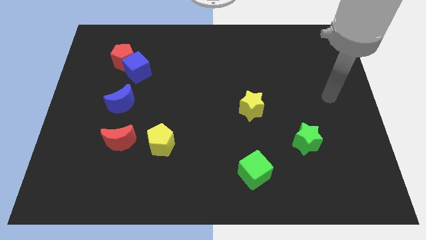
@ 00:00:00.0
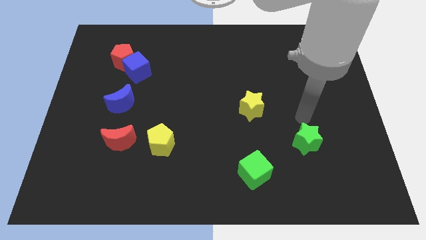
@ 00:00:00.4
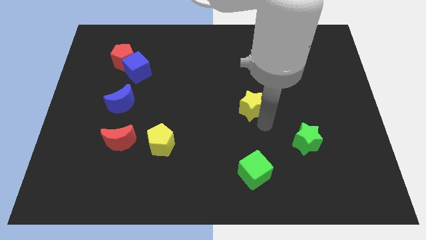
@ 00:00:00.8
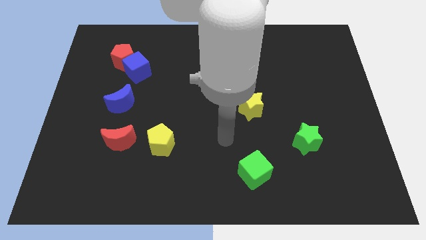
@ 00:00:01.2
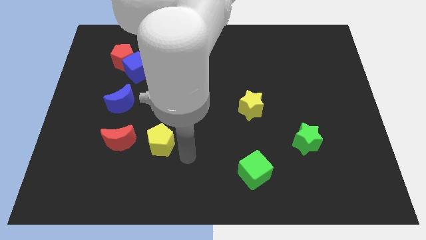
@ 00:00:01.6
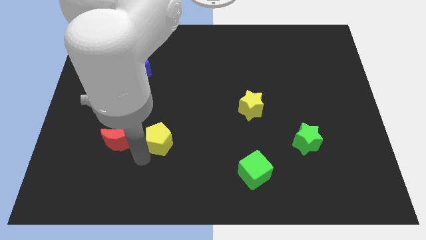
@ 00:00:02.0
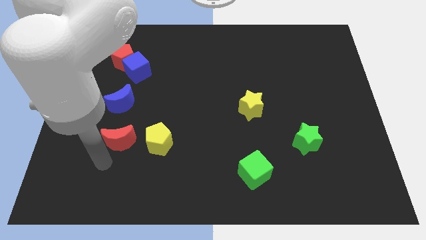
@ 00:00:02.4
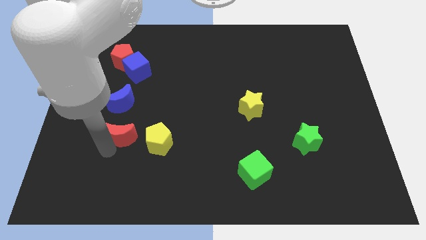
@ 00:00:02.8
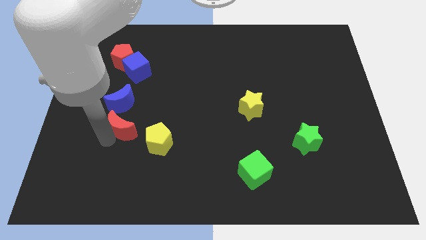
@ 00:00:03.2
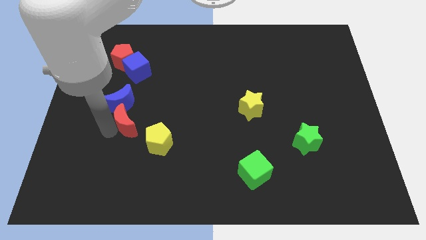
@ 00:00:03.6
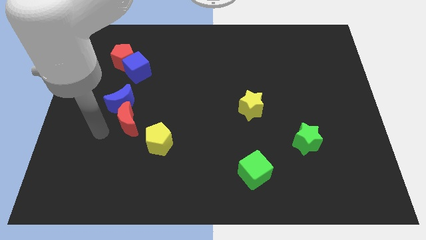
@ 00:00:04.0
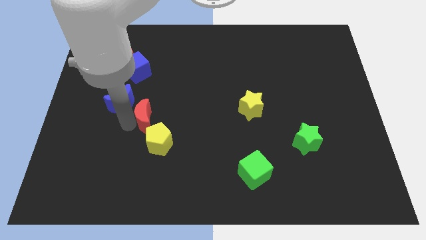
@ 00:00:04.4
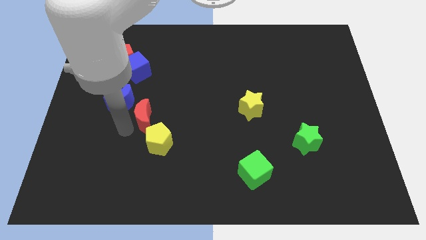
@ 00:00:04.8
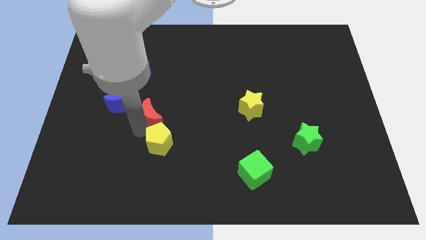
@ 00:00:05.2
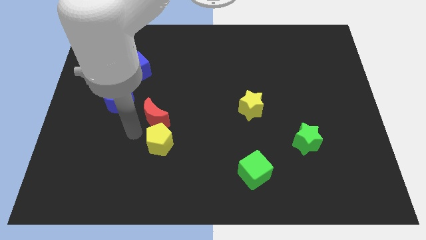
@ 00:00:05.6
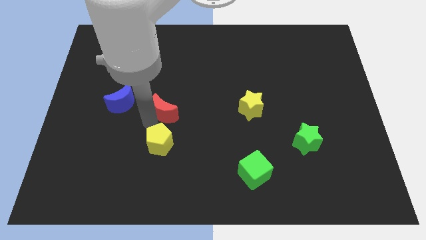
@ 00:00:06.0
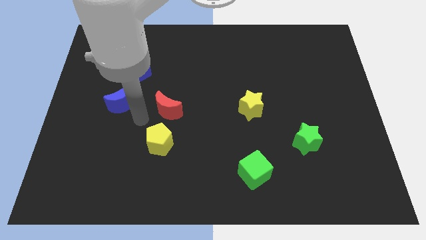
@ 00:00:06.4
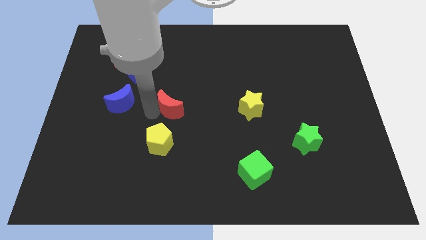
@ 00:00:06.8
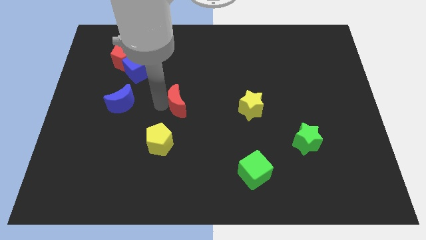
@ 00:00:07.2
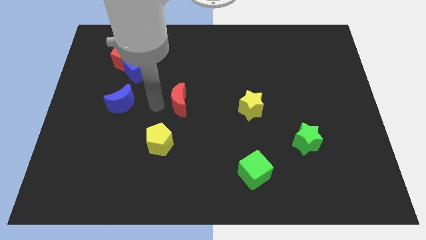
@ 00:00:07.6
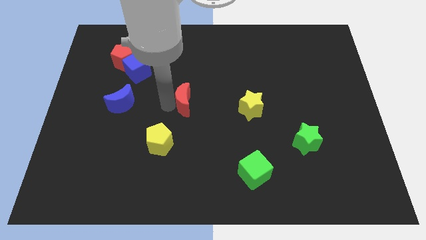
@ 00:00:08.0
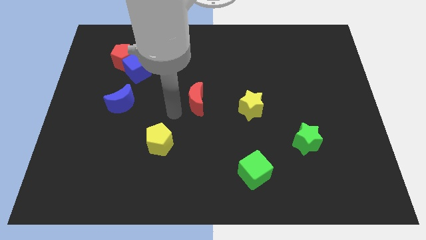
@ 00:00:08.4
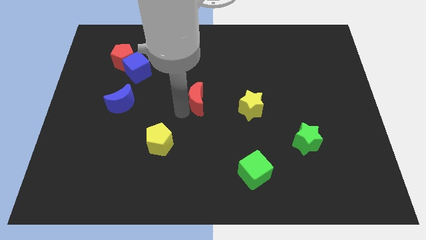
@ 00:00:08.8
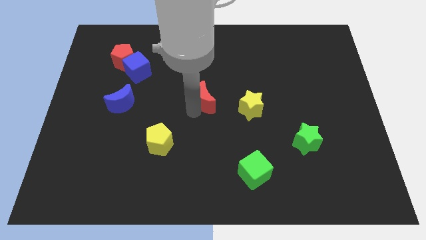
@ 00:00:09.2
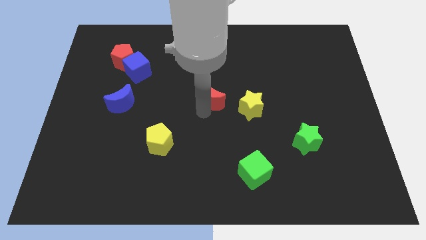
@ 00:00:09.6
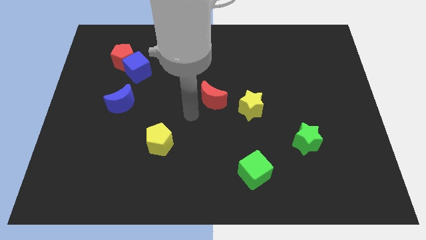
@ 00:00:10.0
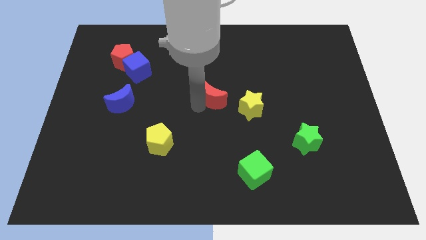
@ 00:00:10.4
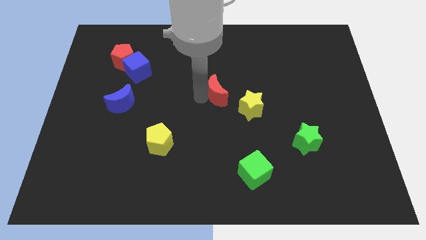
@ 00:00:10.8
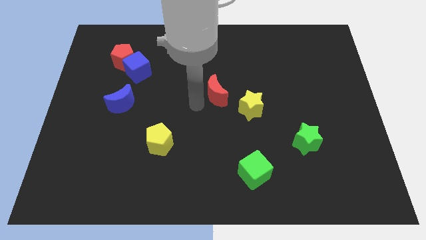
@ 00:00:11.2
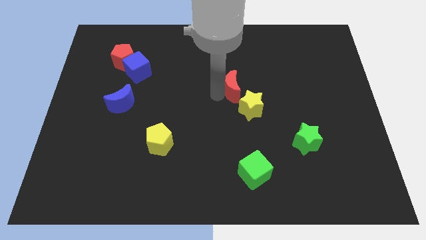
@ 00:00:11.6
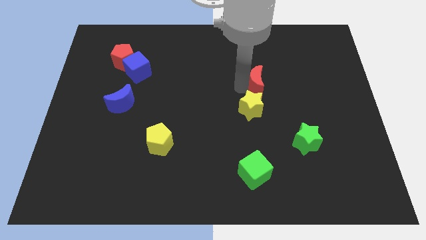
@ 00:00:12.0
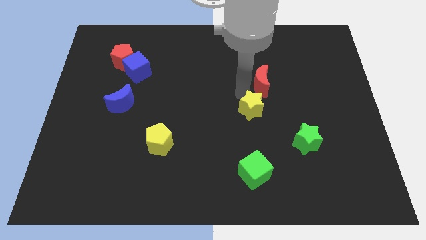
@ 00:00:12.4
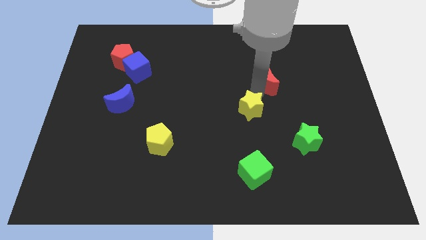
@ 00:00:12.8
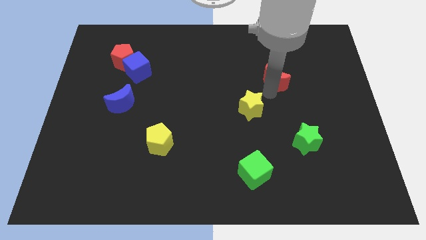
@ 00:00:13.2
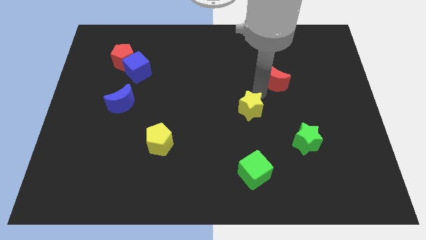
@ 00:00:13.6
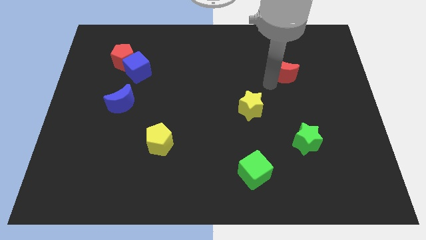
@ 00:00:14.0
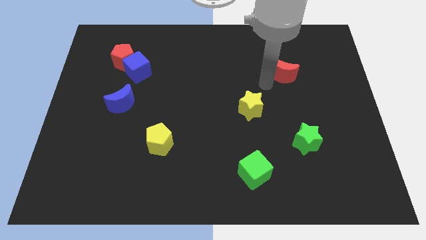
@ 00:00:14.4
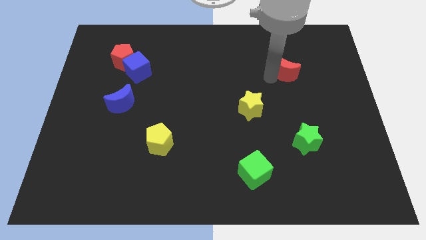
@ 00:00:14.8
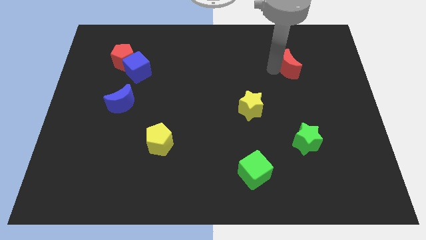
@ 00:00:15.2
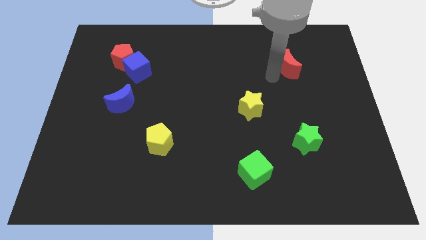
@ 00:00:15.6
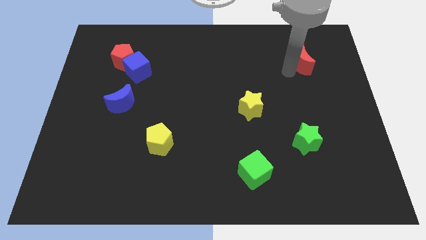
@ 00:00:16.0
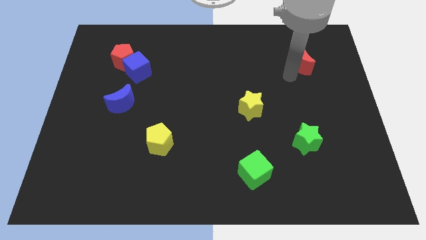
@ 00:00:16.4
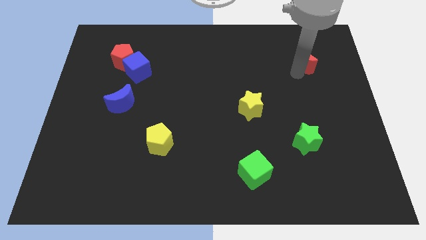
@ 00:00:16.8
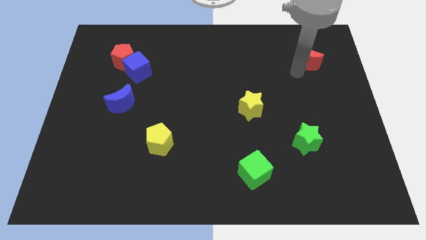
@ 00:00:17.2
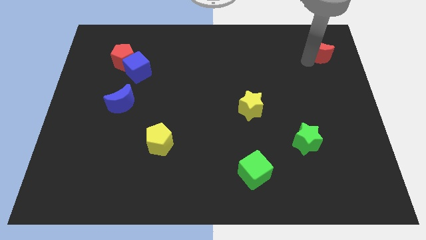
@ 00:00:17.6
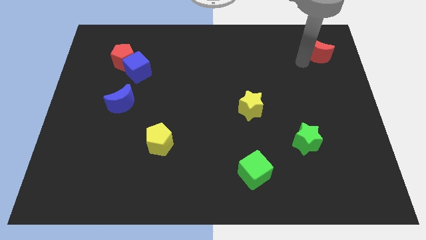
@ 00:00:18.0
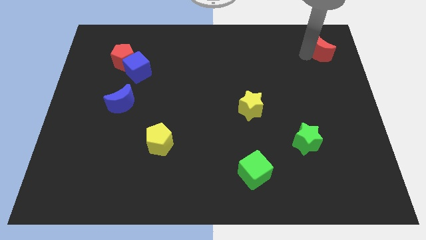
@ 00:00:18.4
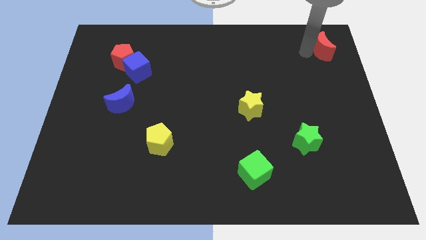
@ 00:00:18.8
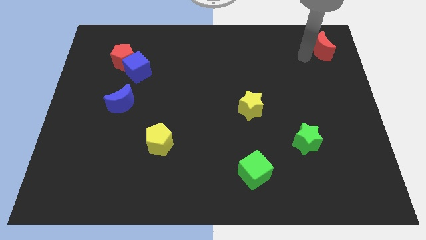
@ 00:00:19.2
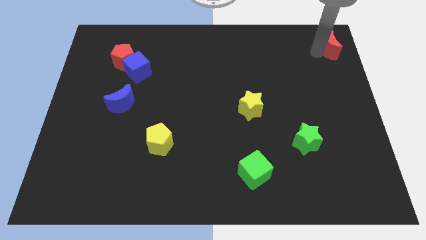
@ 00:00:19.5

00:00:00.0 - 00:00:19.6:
push the red moon to the upper right corner

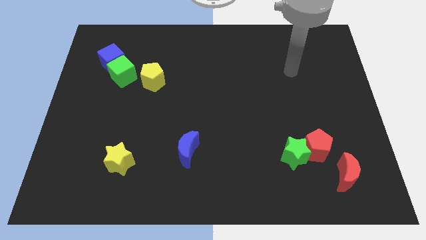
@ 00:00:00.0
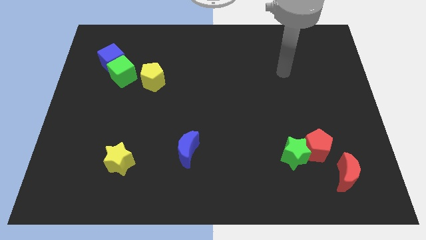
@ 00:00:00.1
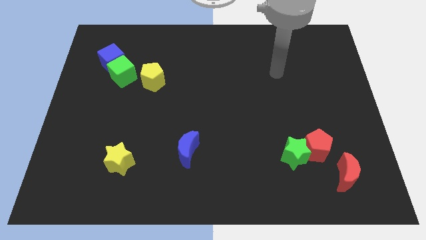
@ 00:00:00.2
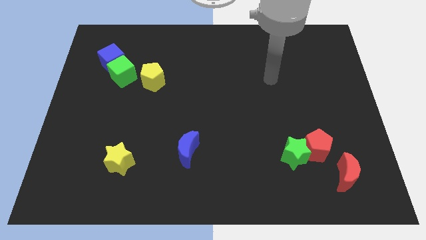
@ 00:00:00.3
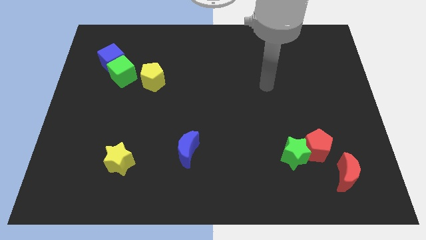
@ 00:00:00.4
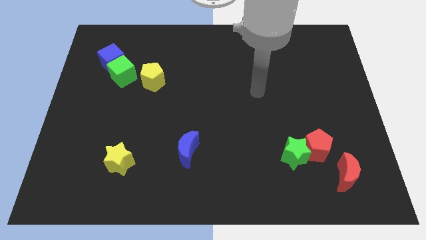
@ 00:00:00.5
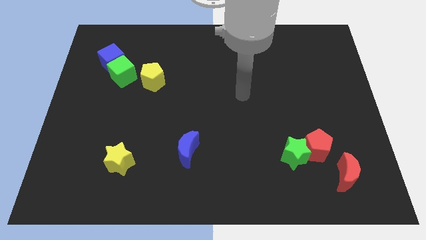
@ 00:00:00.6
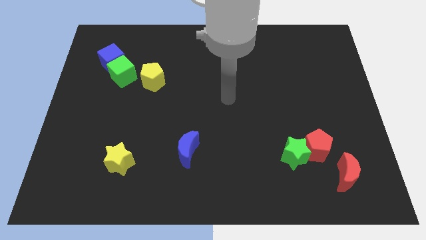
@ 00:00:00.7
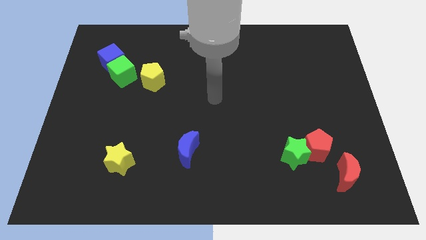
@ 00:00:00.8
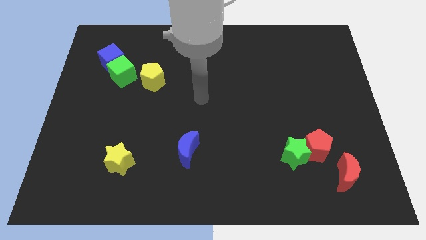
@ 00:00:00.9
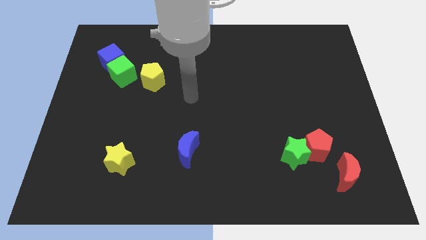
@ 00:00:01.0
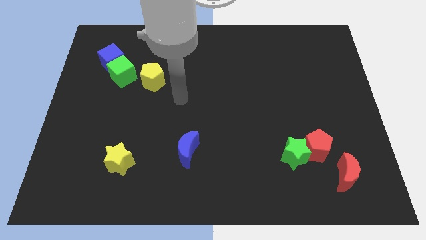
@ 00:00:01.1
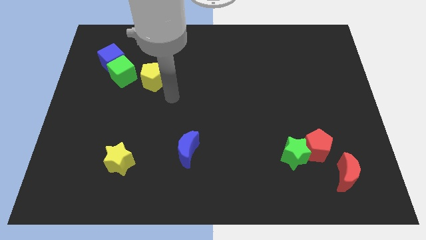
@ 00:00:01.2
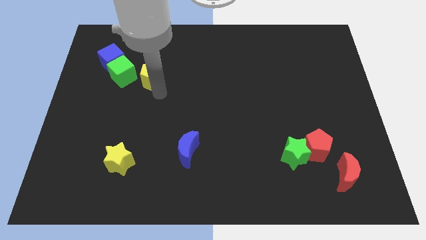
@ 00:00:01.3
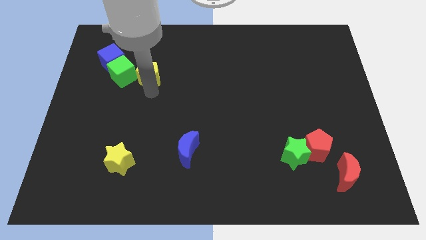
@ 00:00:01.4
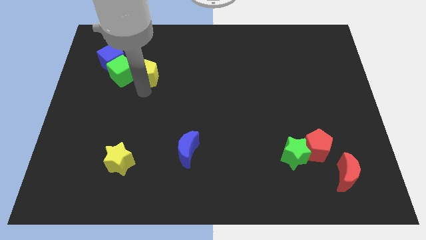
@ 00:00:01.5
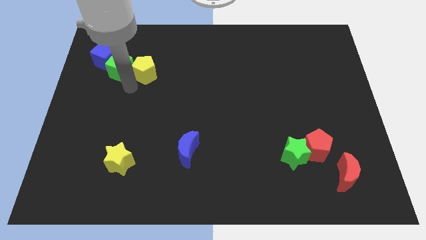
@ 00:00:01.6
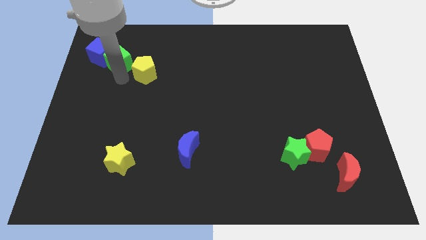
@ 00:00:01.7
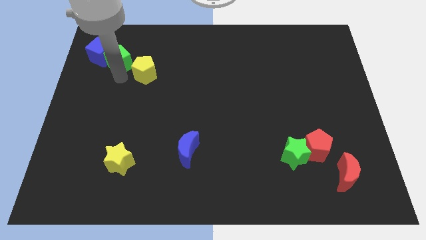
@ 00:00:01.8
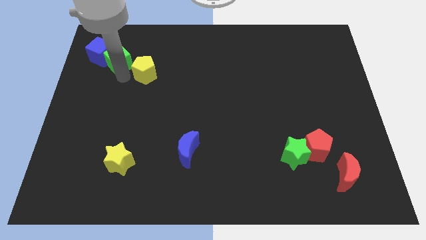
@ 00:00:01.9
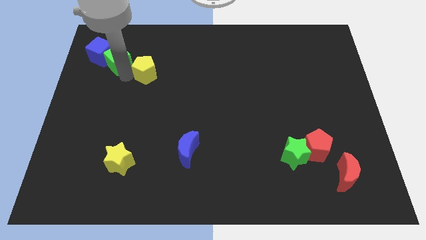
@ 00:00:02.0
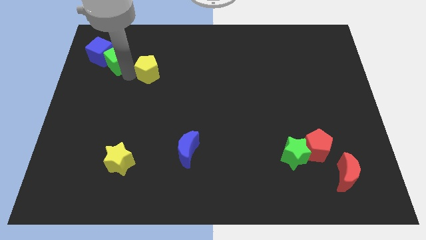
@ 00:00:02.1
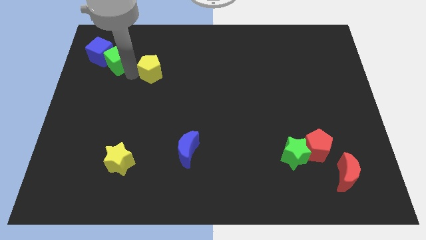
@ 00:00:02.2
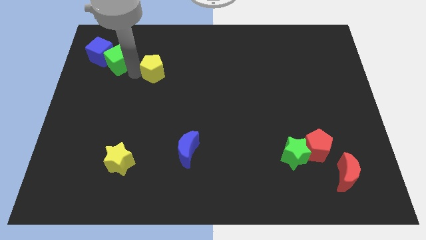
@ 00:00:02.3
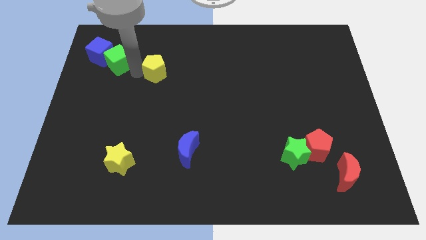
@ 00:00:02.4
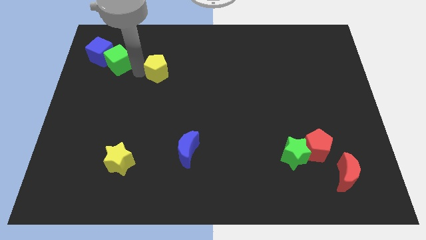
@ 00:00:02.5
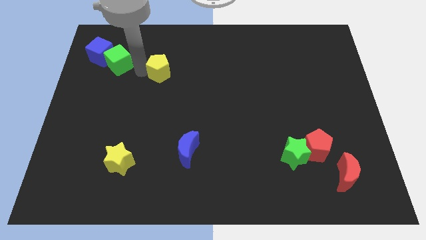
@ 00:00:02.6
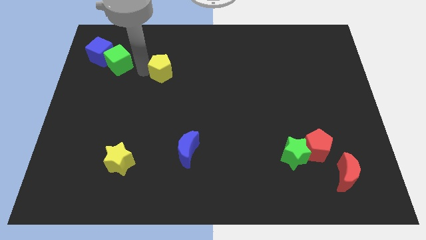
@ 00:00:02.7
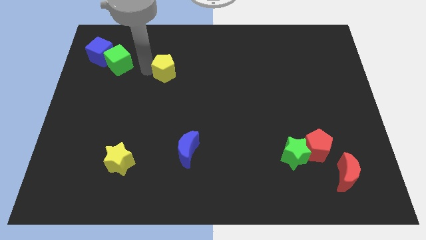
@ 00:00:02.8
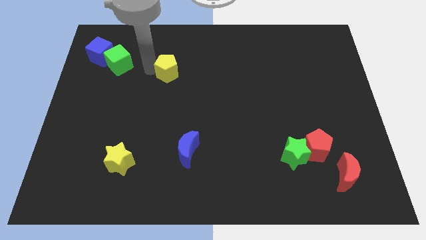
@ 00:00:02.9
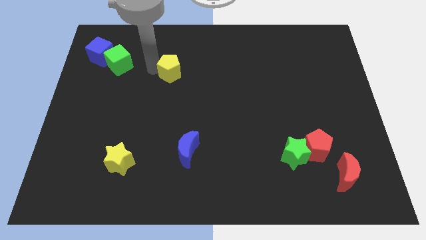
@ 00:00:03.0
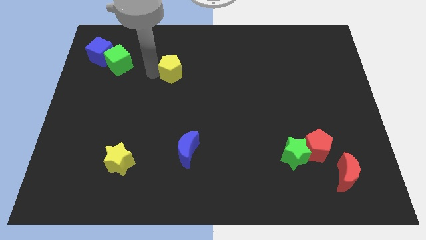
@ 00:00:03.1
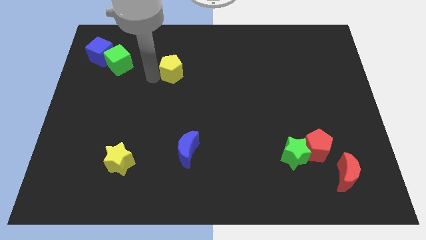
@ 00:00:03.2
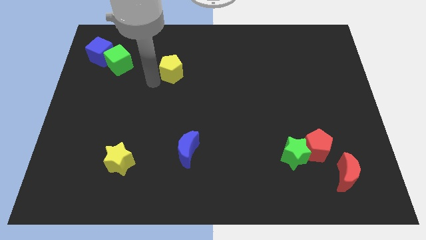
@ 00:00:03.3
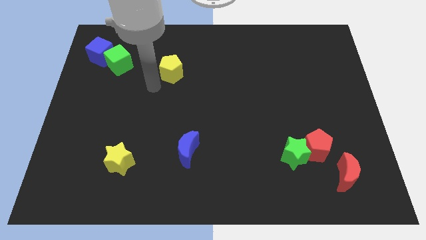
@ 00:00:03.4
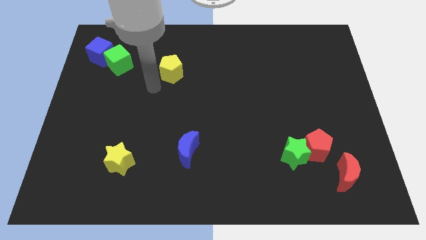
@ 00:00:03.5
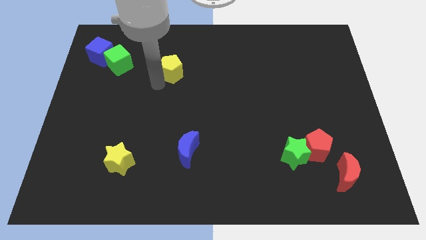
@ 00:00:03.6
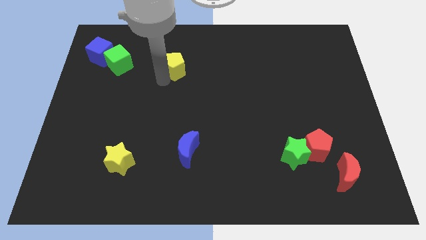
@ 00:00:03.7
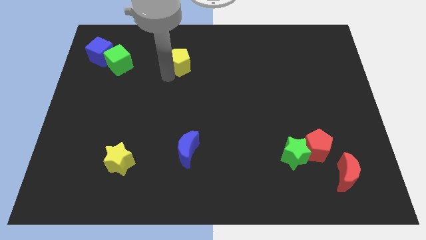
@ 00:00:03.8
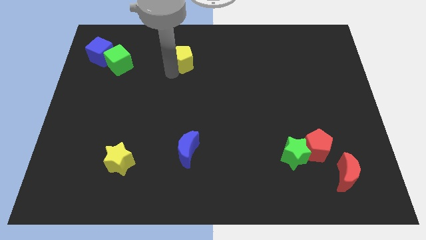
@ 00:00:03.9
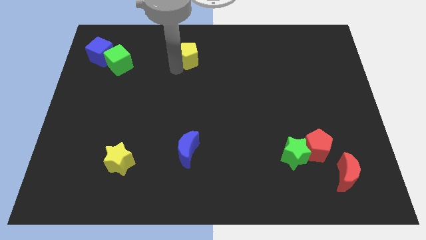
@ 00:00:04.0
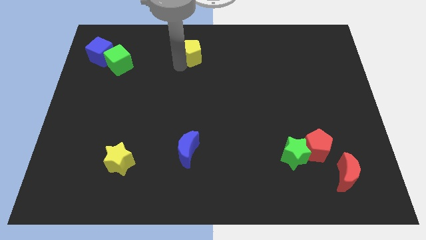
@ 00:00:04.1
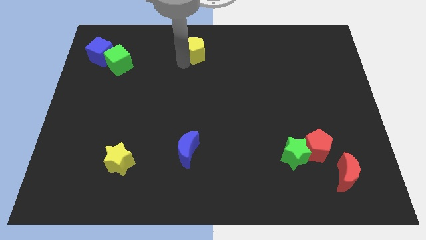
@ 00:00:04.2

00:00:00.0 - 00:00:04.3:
slide the yellow pentagon to the top side
